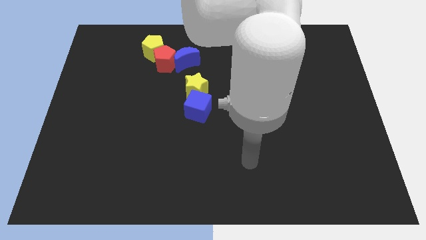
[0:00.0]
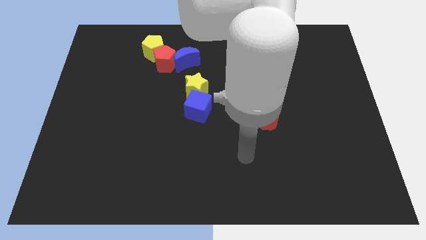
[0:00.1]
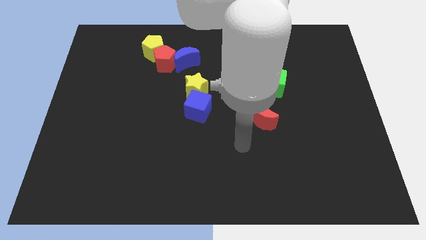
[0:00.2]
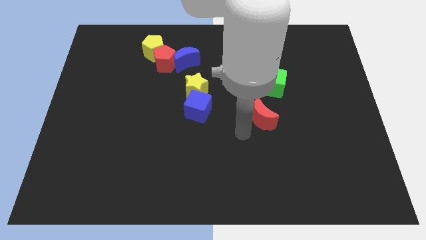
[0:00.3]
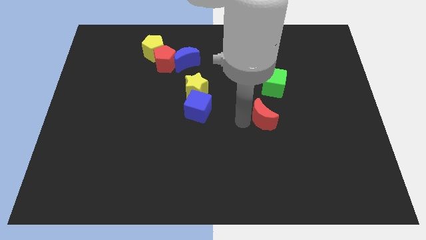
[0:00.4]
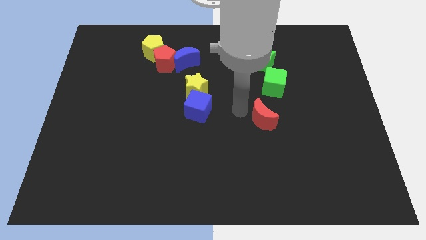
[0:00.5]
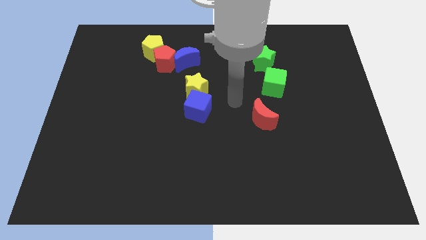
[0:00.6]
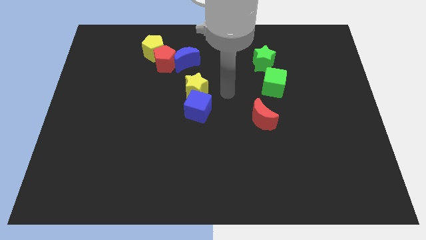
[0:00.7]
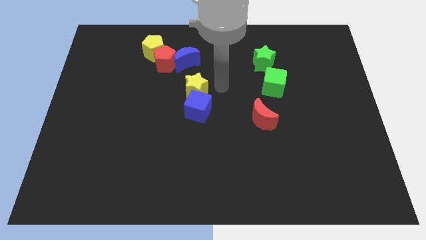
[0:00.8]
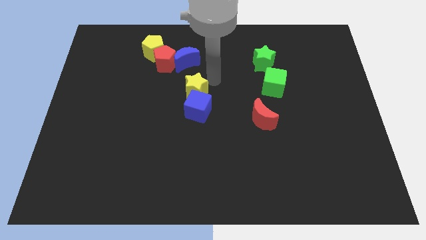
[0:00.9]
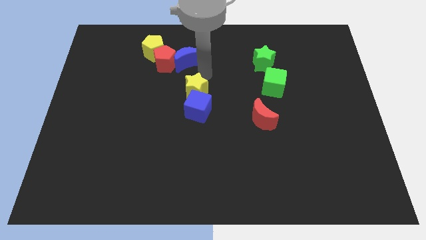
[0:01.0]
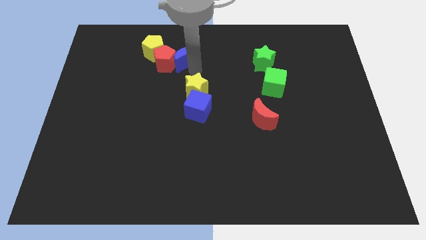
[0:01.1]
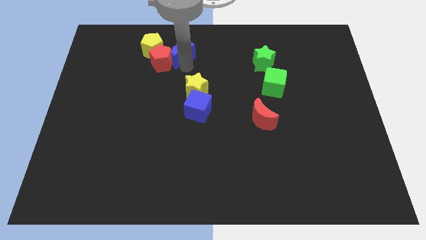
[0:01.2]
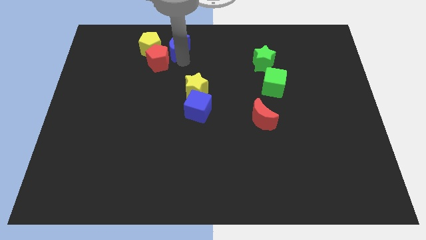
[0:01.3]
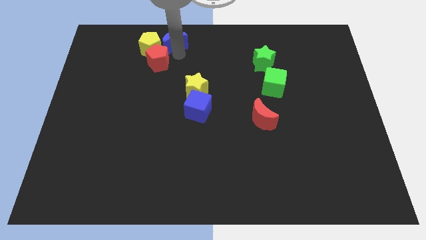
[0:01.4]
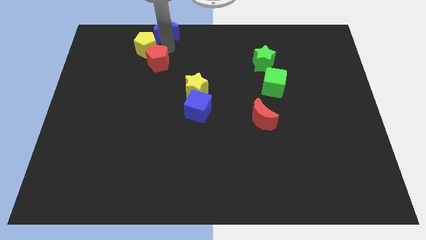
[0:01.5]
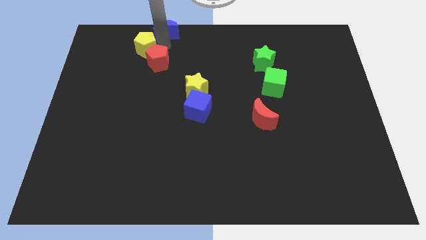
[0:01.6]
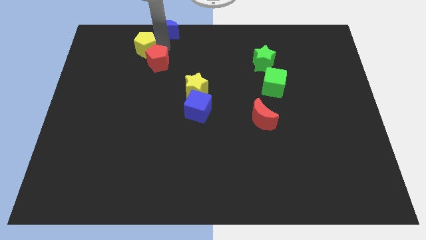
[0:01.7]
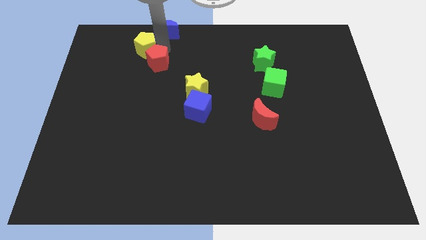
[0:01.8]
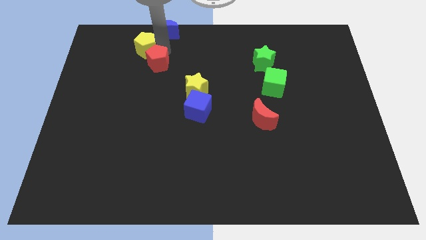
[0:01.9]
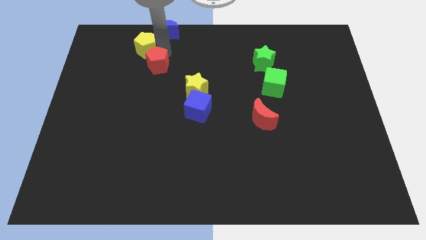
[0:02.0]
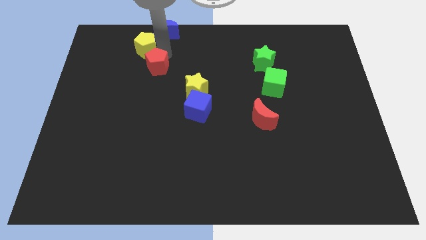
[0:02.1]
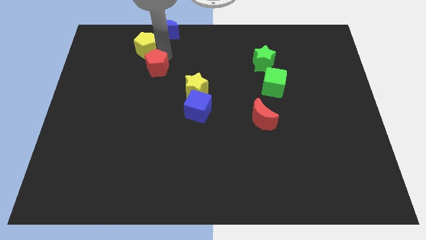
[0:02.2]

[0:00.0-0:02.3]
move the red pentagon away from the blue moon and yellow pentagon

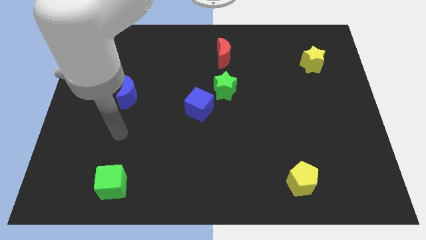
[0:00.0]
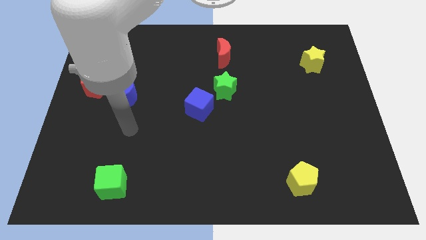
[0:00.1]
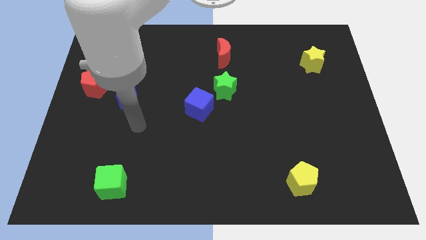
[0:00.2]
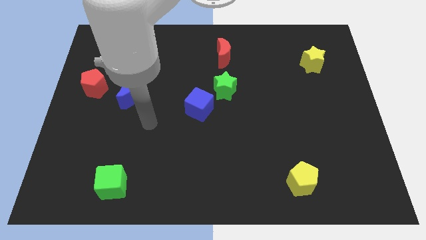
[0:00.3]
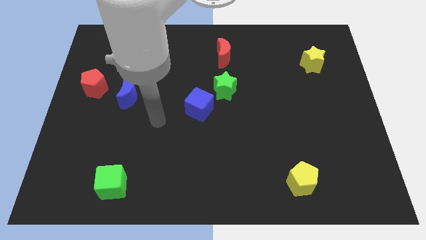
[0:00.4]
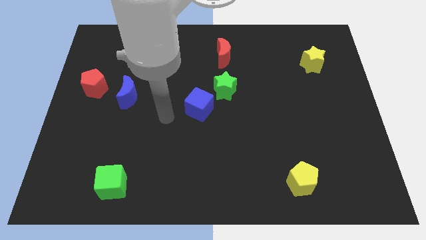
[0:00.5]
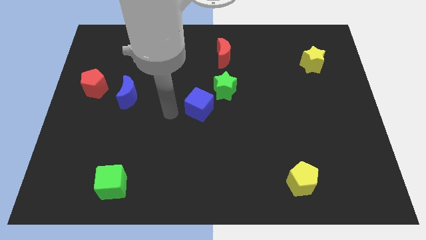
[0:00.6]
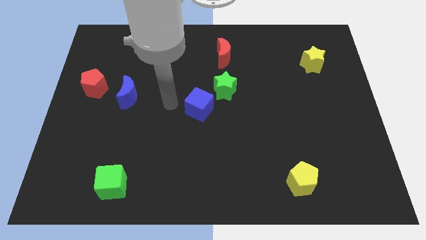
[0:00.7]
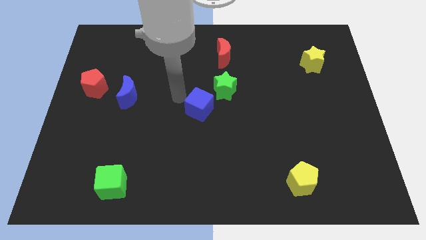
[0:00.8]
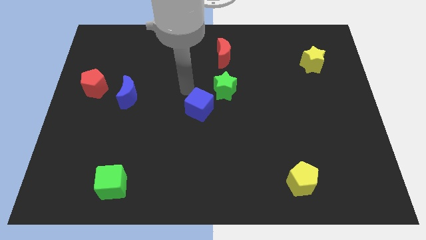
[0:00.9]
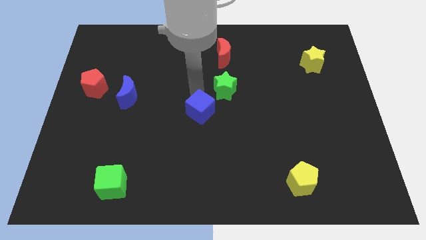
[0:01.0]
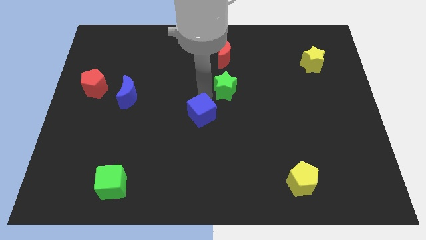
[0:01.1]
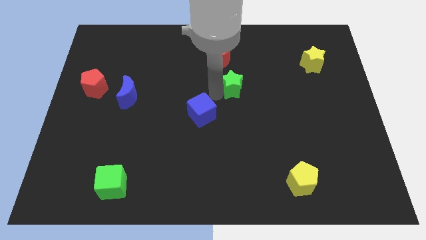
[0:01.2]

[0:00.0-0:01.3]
separate the blue cube from the green star

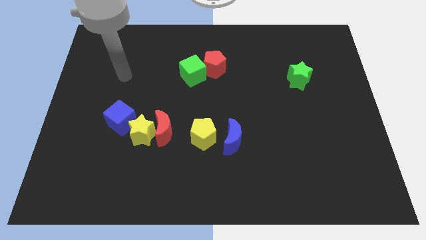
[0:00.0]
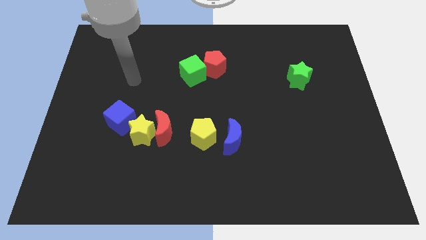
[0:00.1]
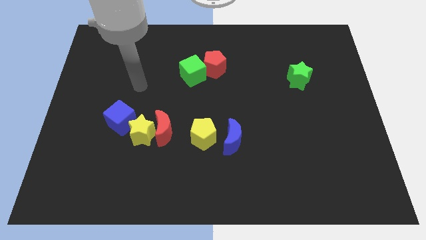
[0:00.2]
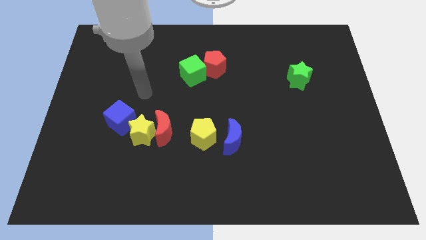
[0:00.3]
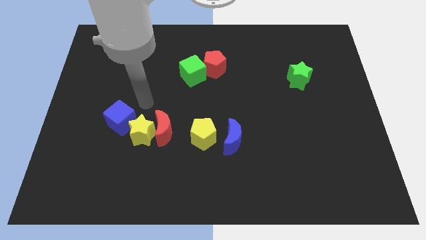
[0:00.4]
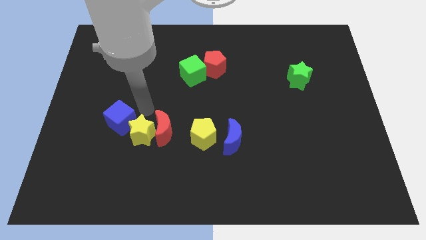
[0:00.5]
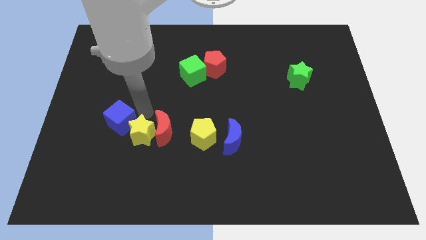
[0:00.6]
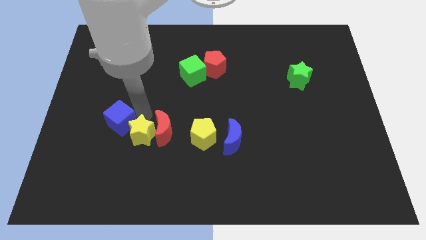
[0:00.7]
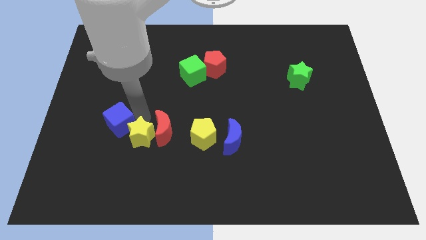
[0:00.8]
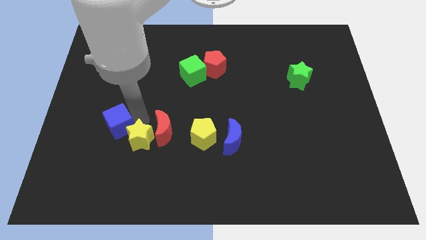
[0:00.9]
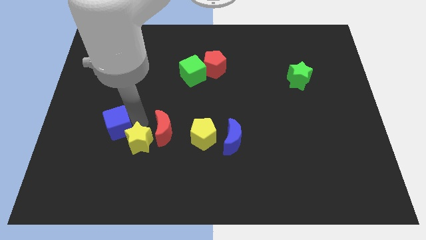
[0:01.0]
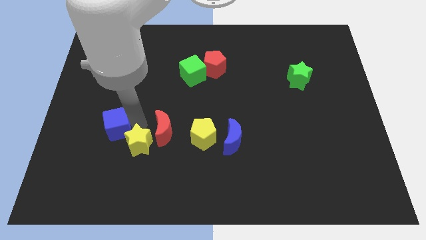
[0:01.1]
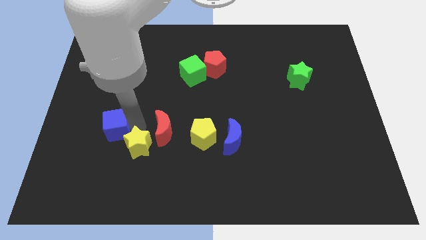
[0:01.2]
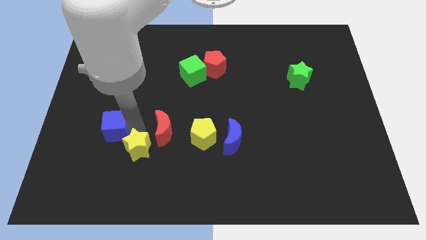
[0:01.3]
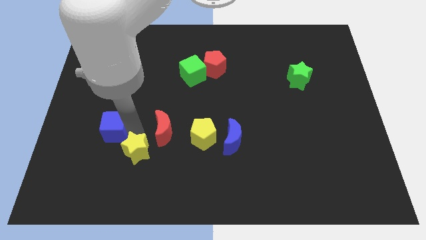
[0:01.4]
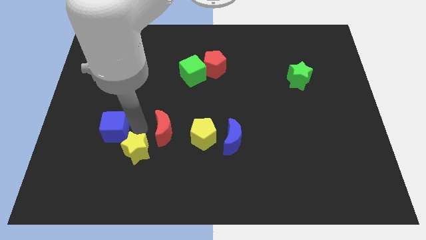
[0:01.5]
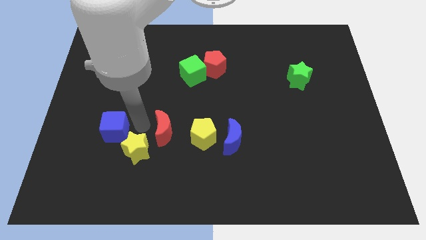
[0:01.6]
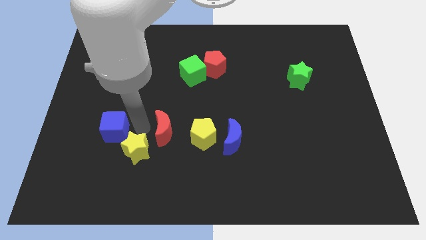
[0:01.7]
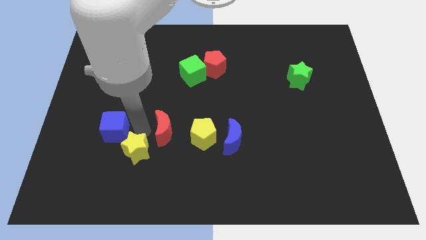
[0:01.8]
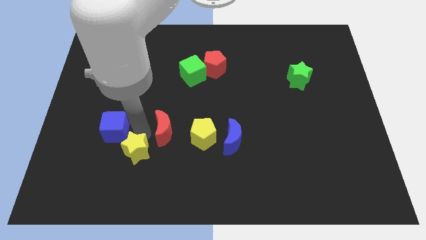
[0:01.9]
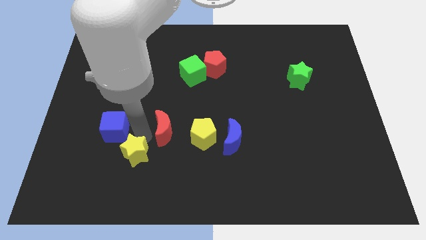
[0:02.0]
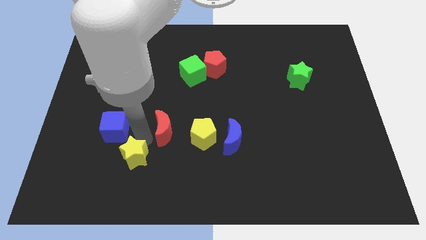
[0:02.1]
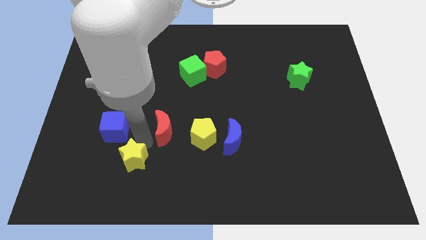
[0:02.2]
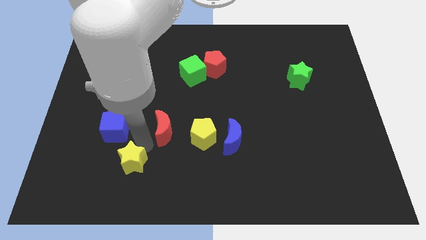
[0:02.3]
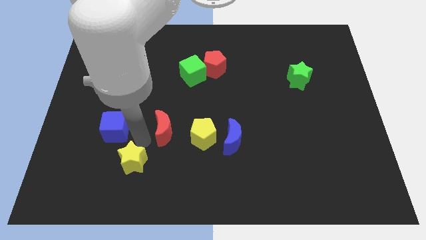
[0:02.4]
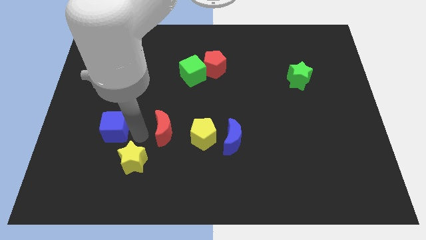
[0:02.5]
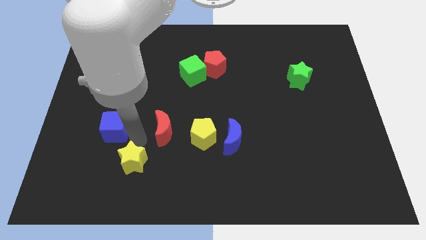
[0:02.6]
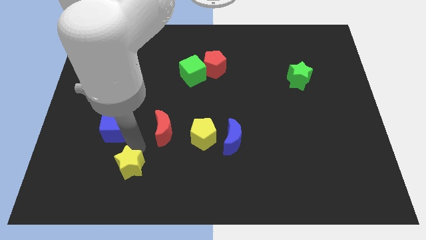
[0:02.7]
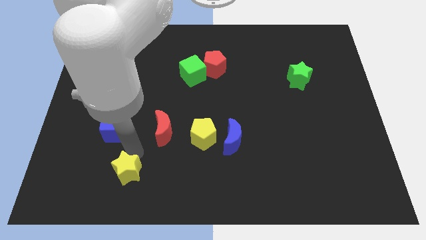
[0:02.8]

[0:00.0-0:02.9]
separate the yellow star from the red moon and blue cube

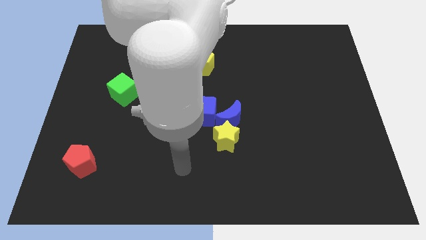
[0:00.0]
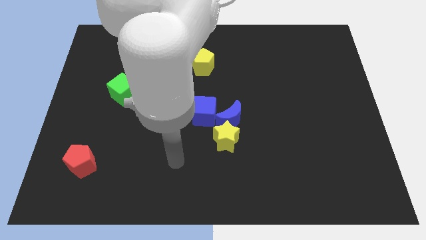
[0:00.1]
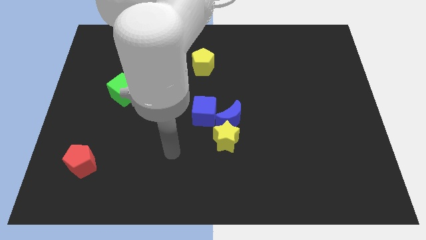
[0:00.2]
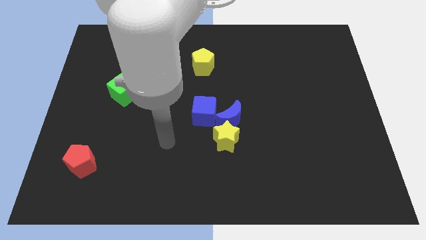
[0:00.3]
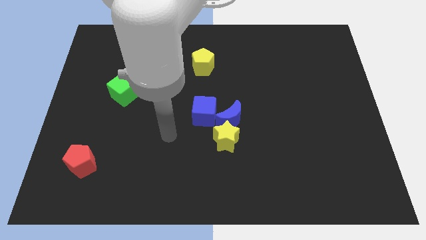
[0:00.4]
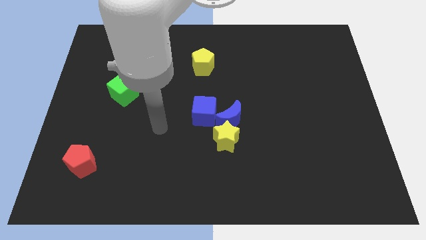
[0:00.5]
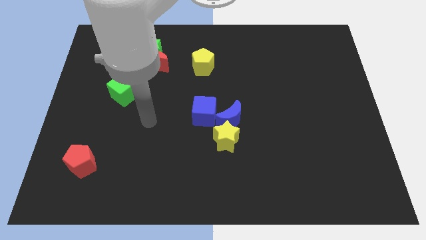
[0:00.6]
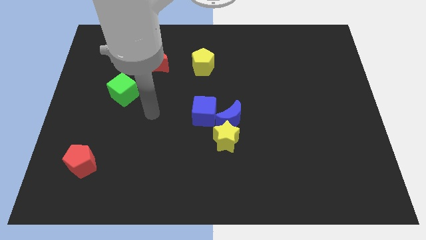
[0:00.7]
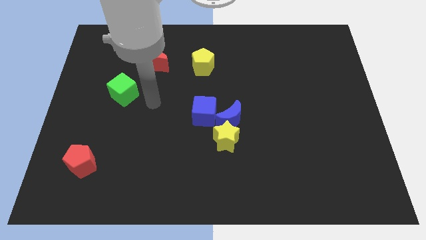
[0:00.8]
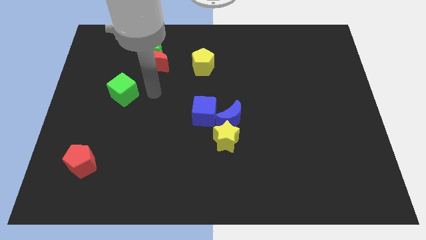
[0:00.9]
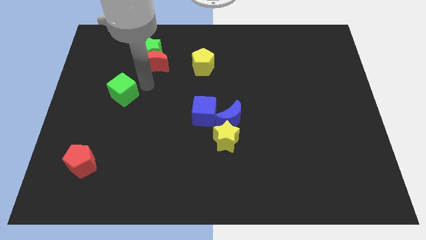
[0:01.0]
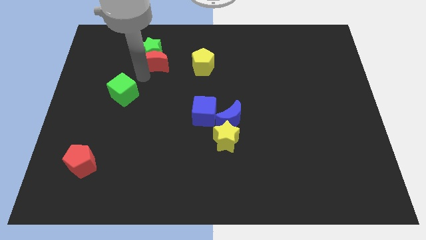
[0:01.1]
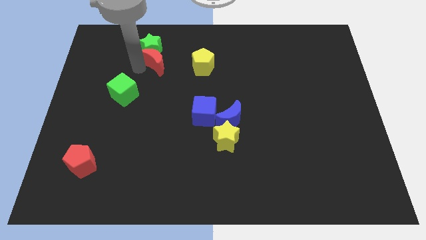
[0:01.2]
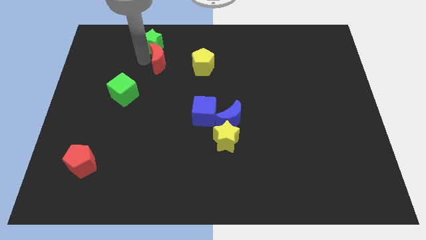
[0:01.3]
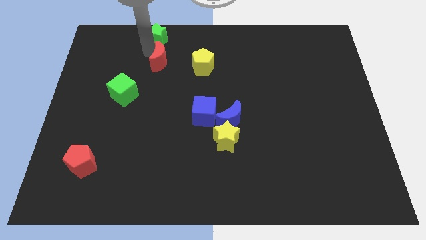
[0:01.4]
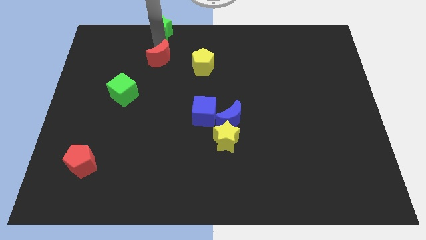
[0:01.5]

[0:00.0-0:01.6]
separate the red moon from the green star

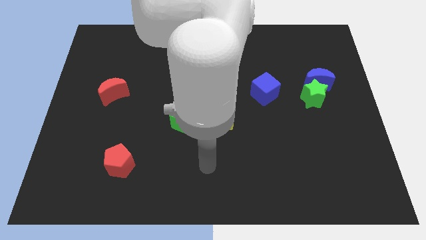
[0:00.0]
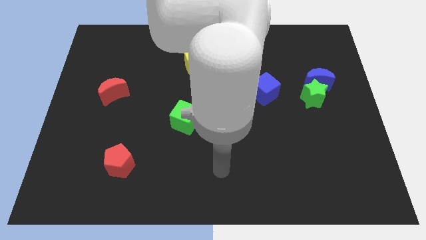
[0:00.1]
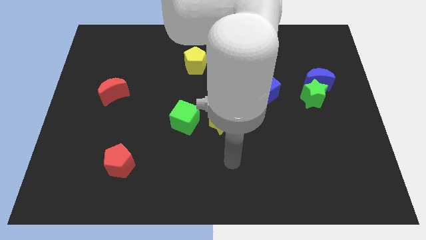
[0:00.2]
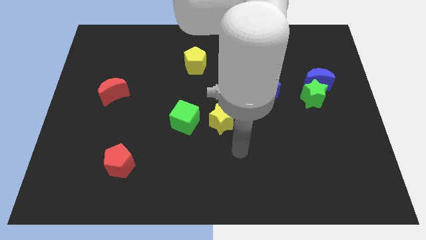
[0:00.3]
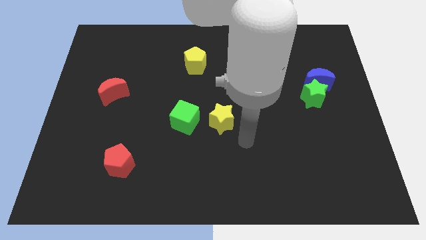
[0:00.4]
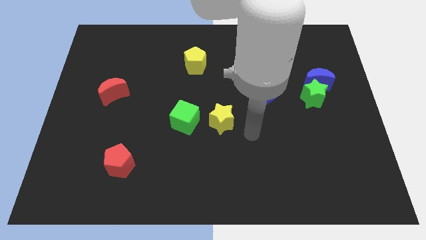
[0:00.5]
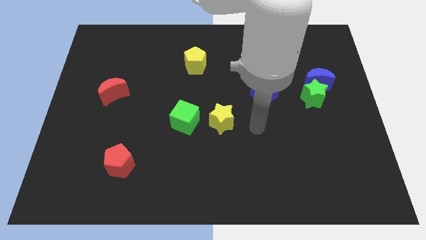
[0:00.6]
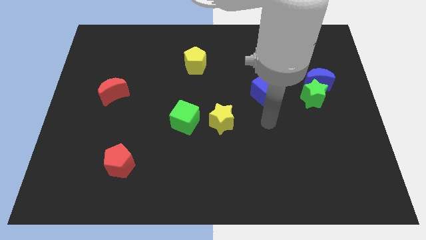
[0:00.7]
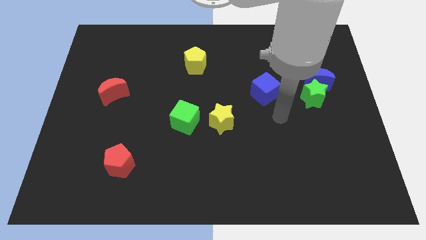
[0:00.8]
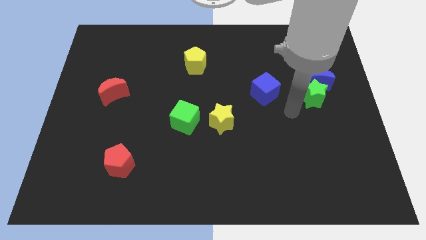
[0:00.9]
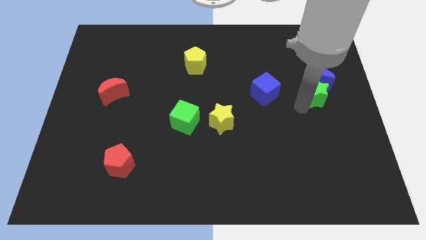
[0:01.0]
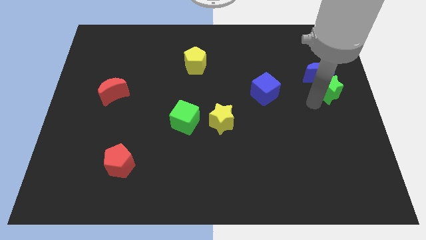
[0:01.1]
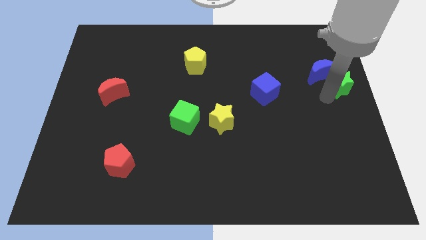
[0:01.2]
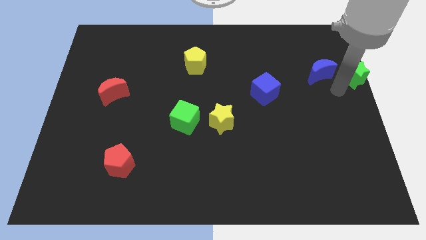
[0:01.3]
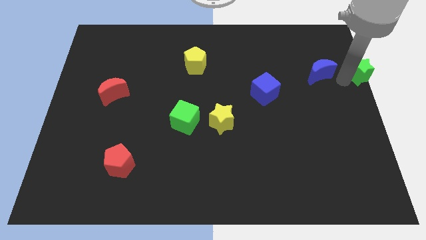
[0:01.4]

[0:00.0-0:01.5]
move the blue moon away from the green star
